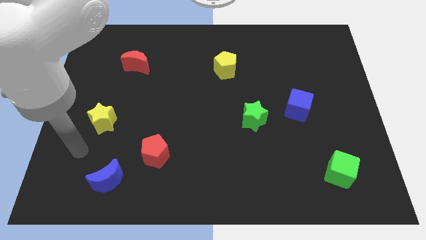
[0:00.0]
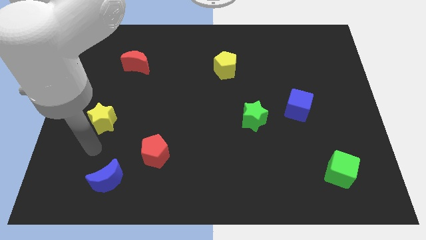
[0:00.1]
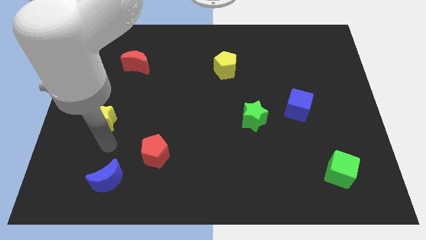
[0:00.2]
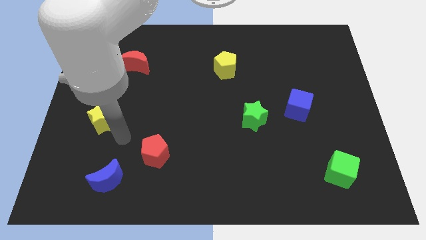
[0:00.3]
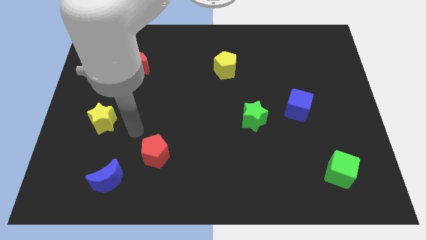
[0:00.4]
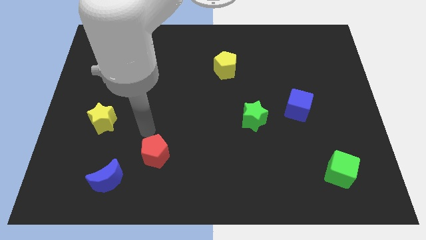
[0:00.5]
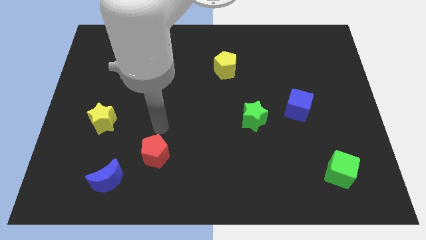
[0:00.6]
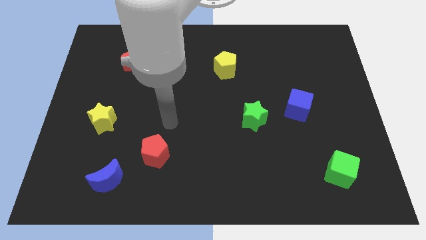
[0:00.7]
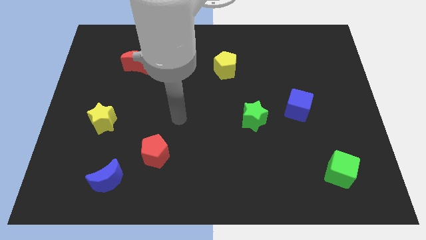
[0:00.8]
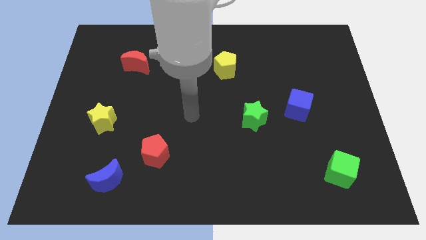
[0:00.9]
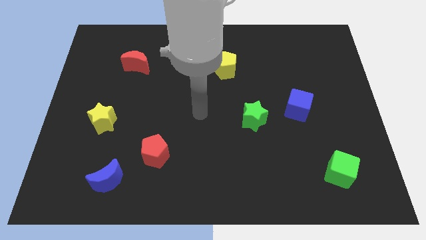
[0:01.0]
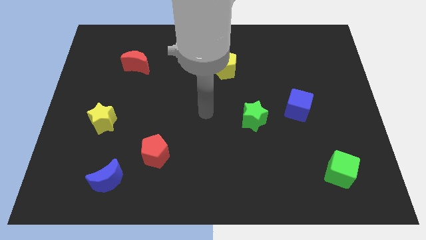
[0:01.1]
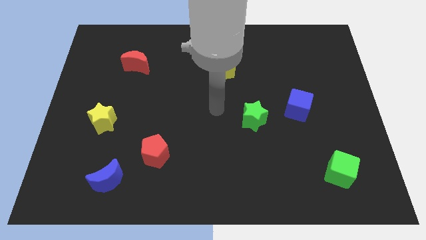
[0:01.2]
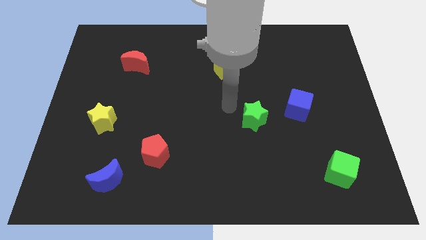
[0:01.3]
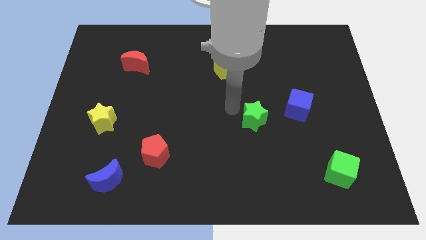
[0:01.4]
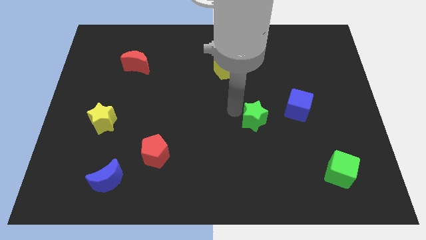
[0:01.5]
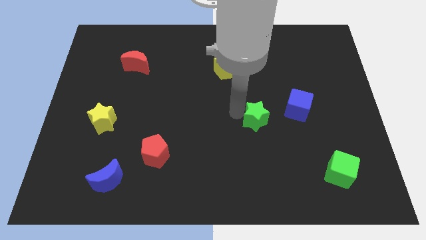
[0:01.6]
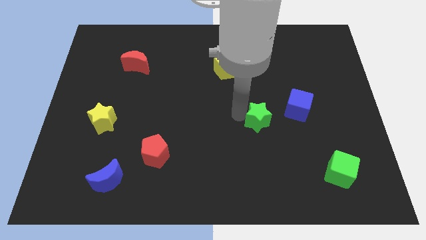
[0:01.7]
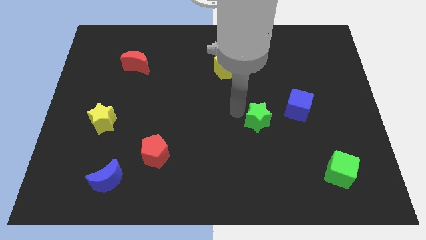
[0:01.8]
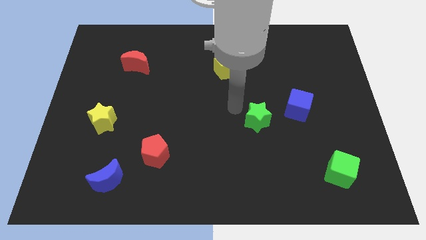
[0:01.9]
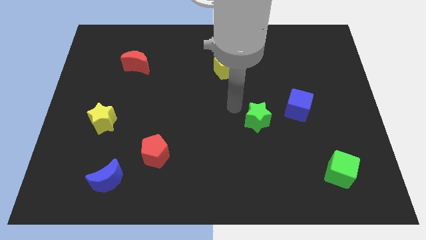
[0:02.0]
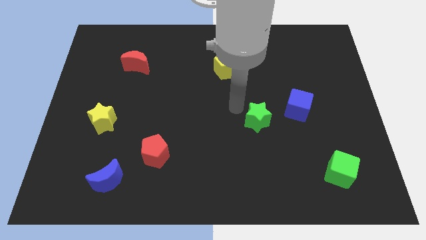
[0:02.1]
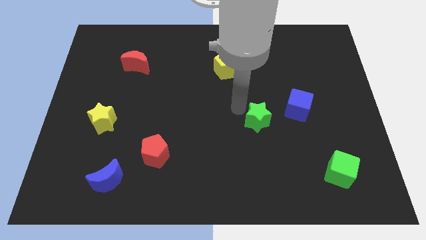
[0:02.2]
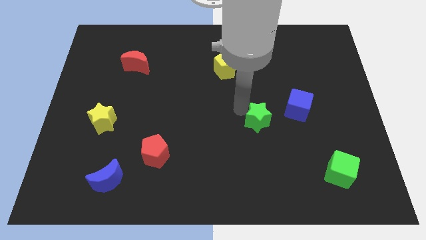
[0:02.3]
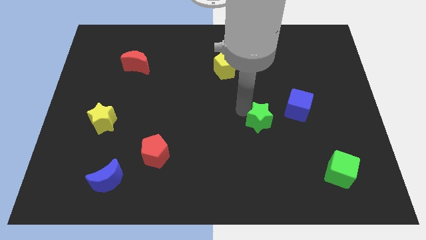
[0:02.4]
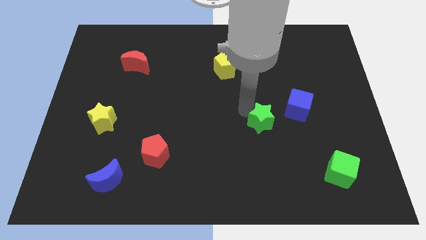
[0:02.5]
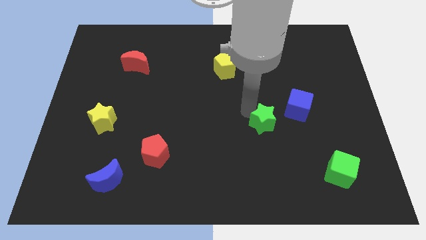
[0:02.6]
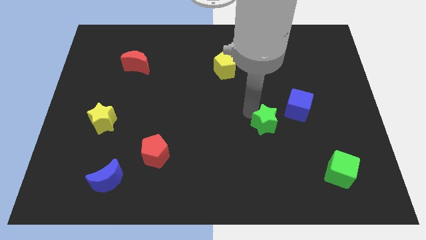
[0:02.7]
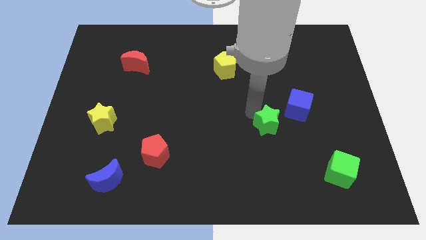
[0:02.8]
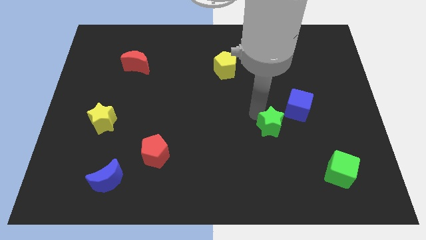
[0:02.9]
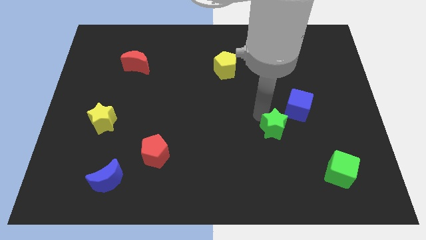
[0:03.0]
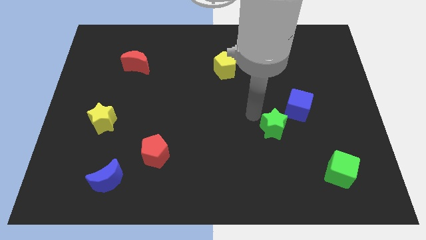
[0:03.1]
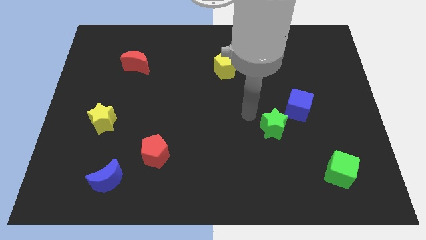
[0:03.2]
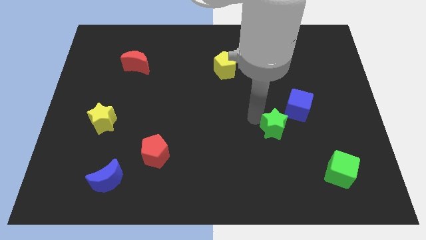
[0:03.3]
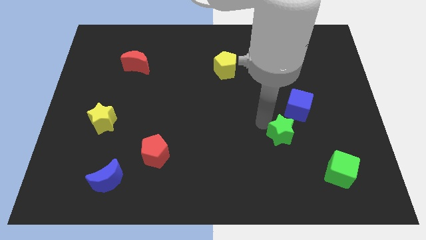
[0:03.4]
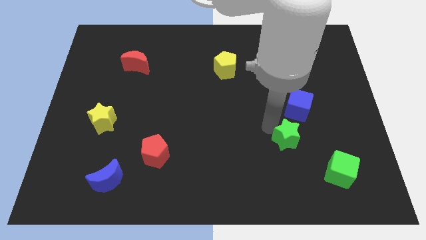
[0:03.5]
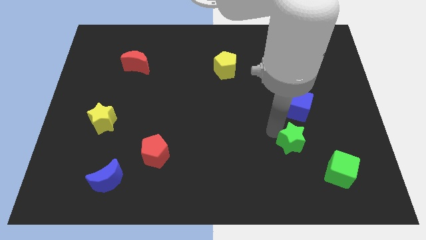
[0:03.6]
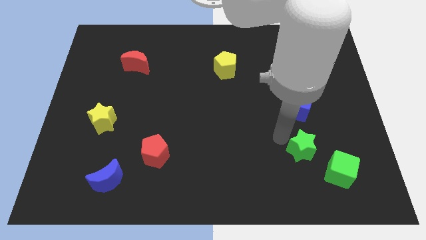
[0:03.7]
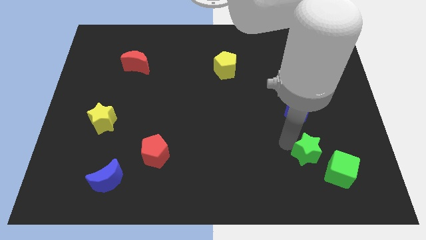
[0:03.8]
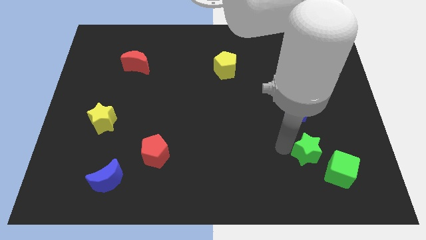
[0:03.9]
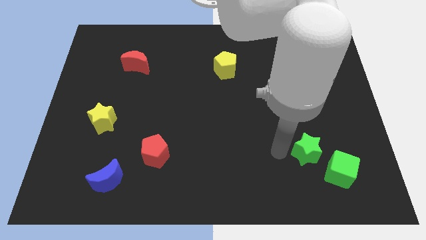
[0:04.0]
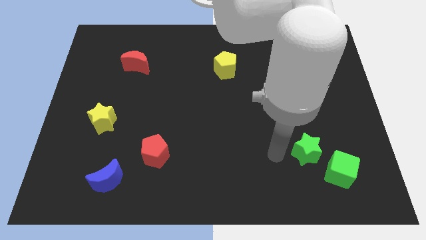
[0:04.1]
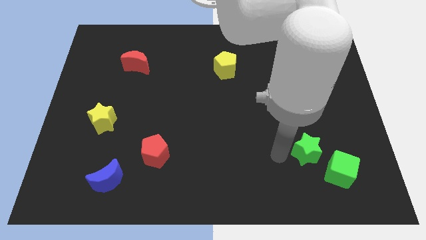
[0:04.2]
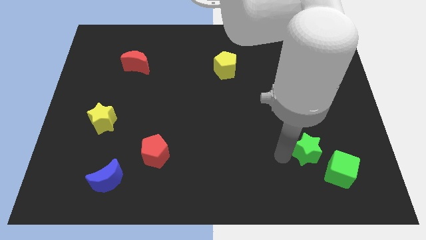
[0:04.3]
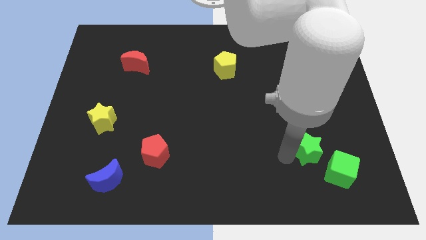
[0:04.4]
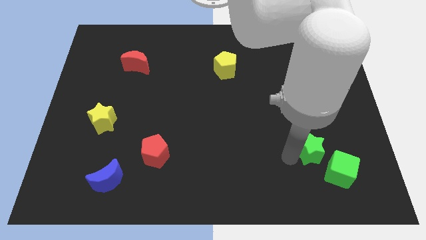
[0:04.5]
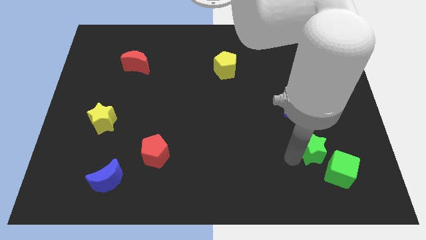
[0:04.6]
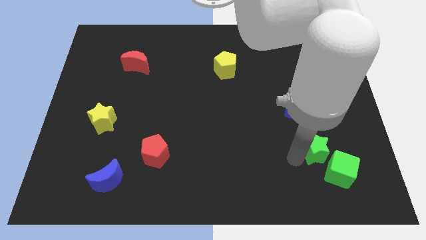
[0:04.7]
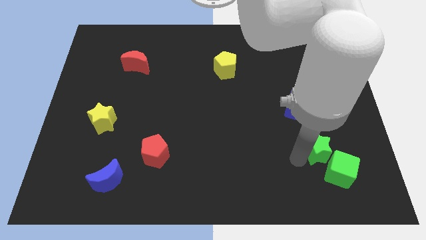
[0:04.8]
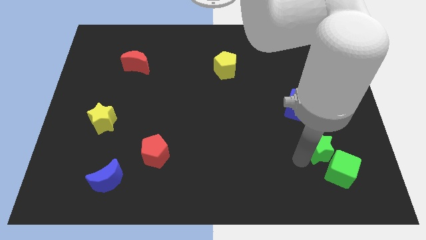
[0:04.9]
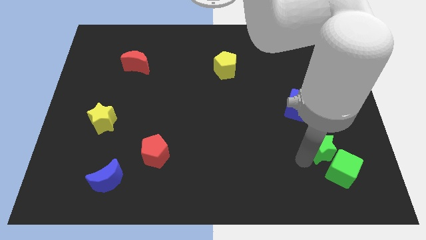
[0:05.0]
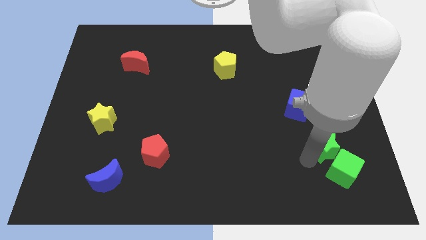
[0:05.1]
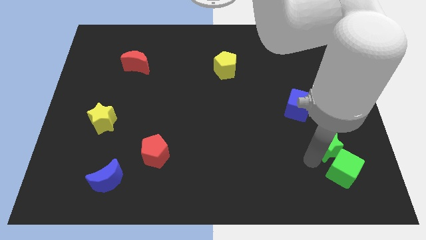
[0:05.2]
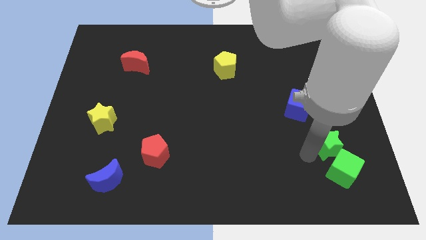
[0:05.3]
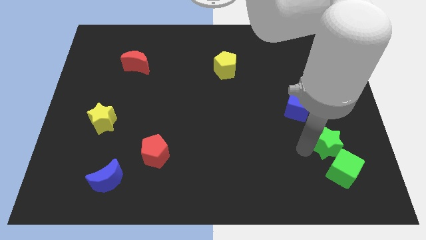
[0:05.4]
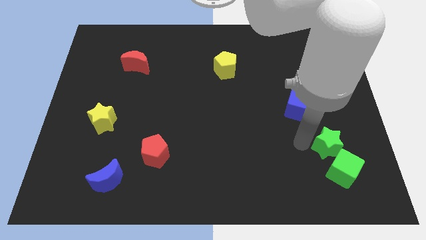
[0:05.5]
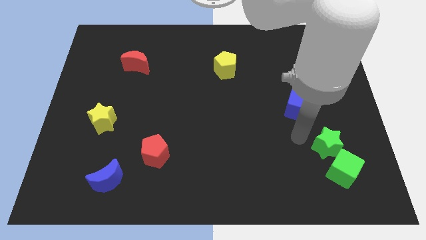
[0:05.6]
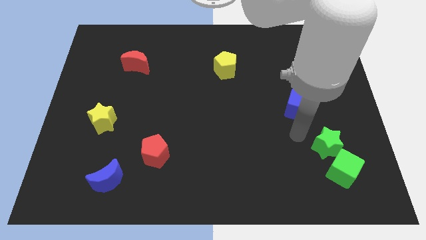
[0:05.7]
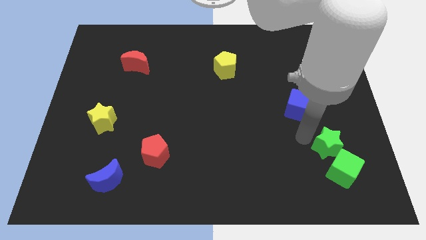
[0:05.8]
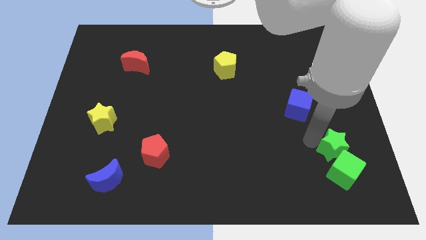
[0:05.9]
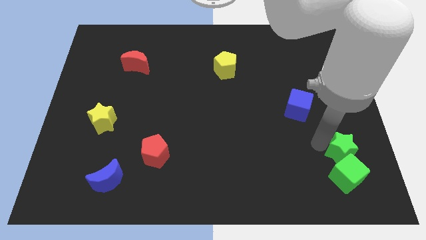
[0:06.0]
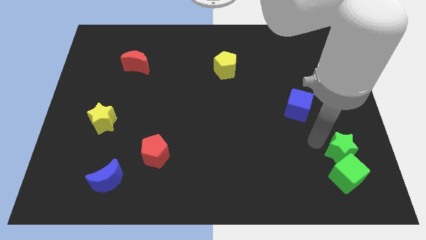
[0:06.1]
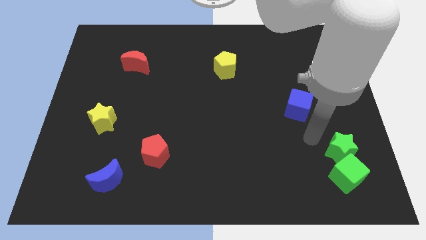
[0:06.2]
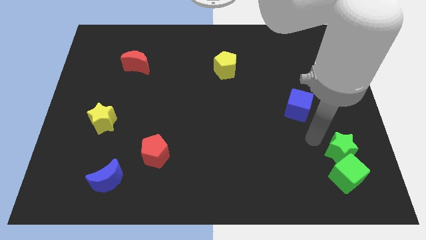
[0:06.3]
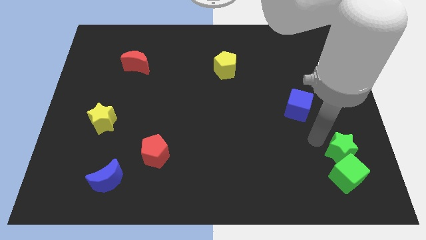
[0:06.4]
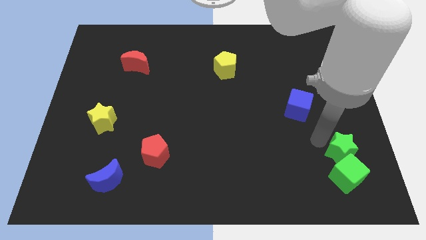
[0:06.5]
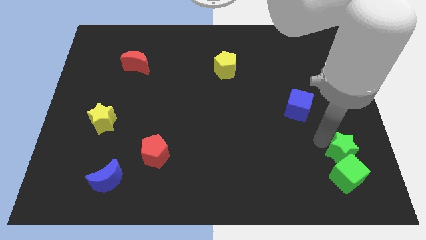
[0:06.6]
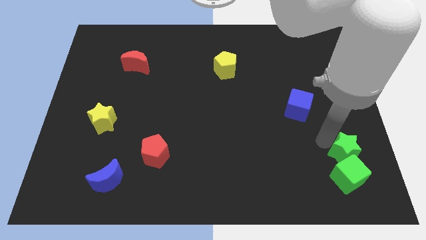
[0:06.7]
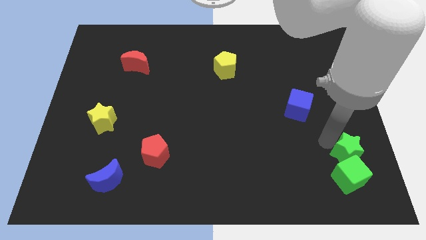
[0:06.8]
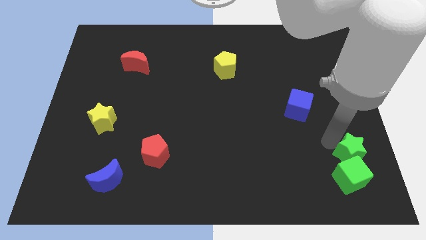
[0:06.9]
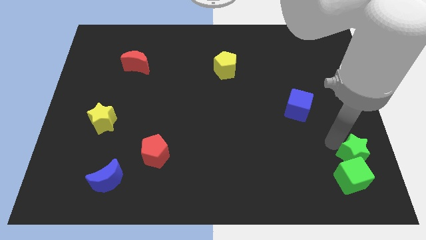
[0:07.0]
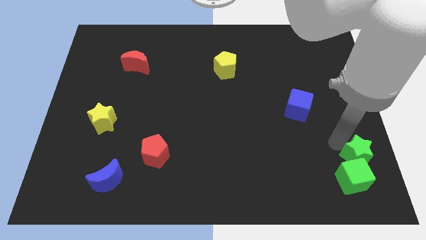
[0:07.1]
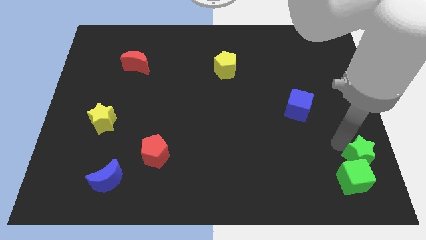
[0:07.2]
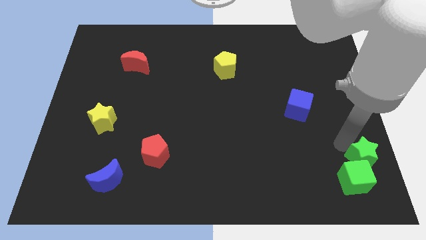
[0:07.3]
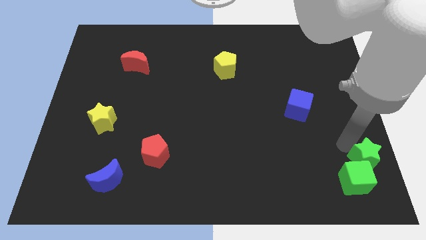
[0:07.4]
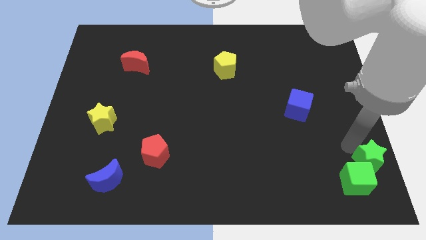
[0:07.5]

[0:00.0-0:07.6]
slide the green star to the bottom right of the board

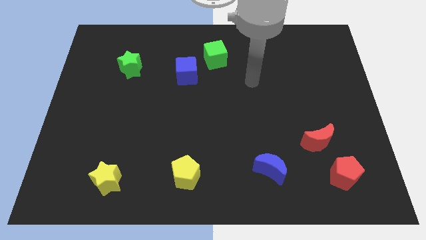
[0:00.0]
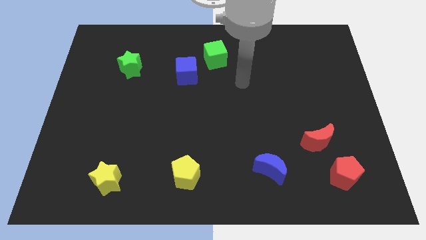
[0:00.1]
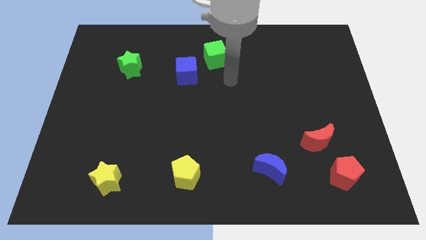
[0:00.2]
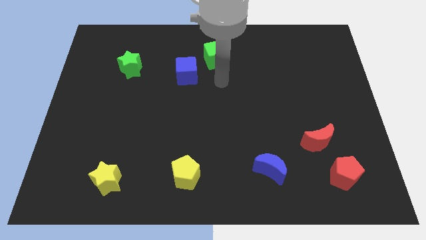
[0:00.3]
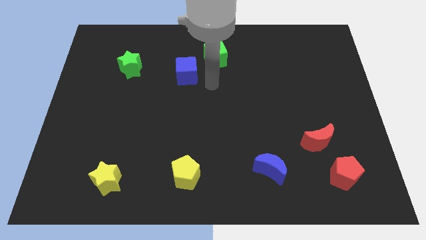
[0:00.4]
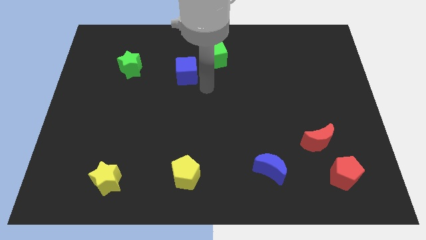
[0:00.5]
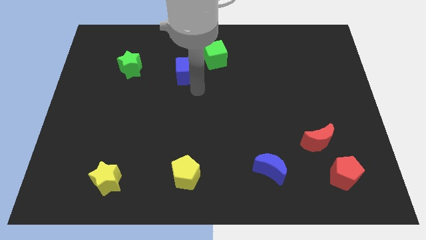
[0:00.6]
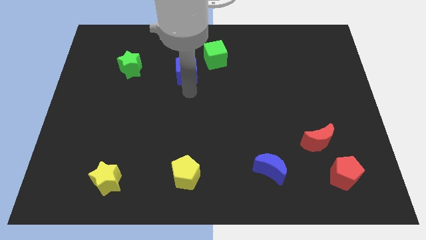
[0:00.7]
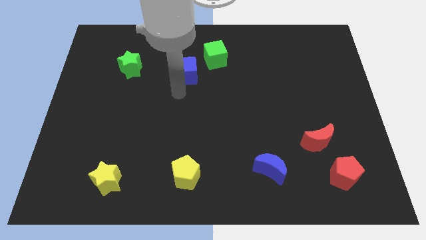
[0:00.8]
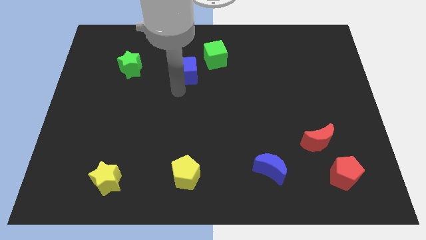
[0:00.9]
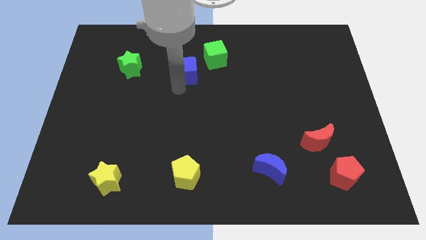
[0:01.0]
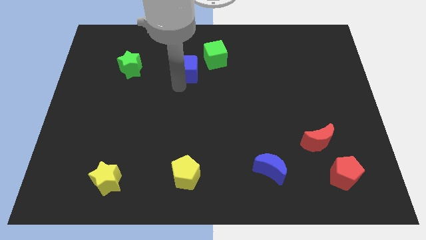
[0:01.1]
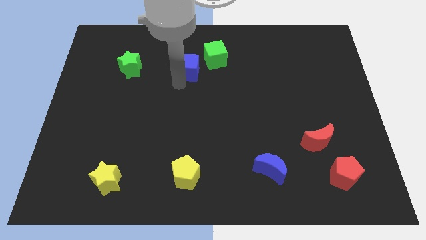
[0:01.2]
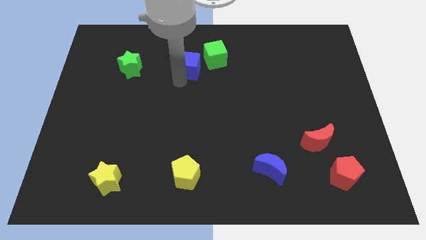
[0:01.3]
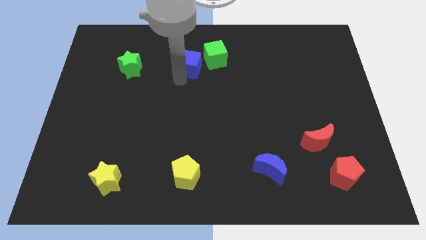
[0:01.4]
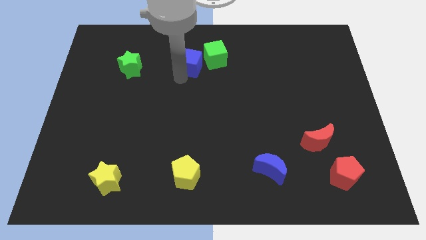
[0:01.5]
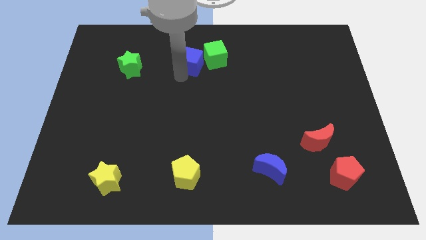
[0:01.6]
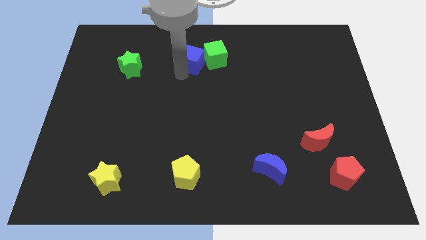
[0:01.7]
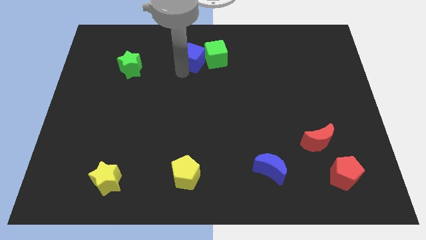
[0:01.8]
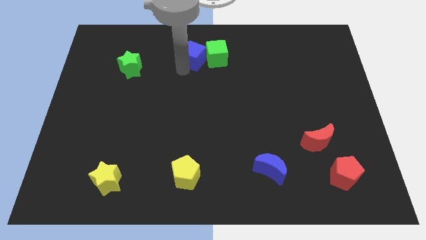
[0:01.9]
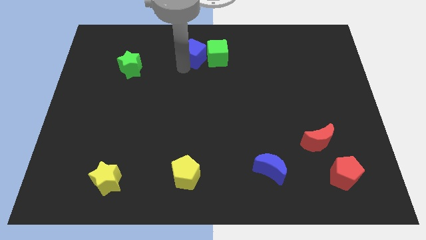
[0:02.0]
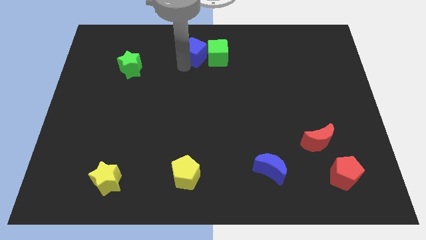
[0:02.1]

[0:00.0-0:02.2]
push the blue cube to the top side
